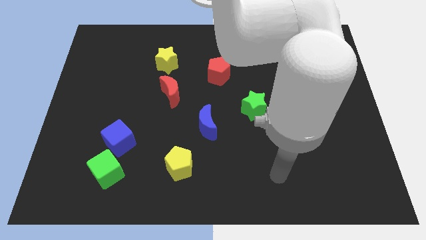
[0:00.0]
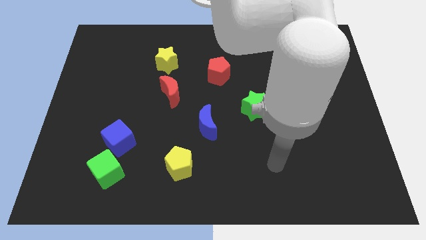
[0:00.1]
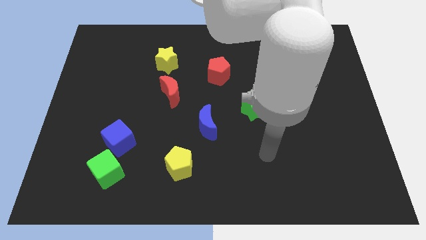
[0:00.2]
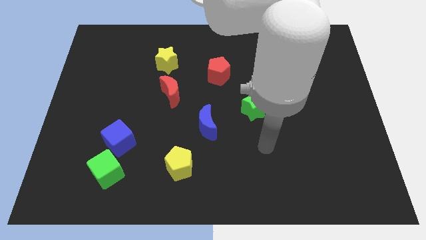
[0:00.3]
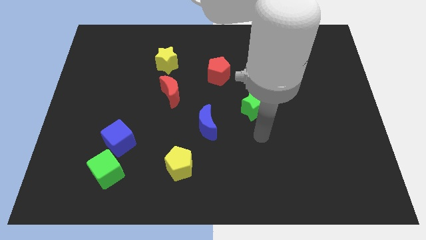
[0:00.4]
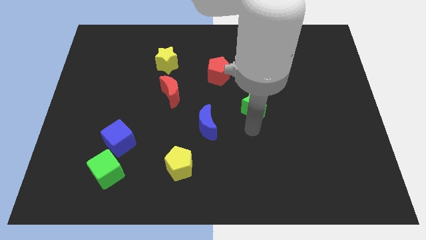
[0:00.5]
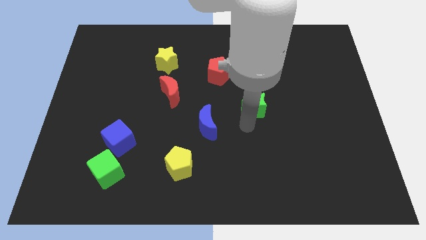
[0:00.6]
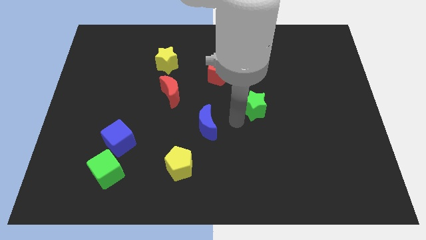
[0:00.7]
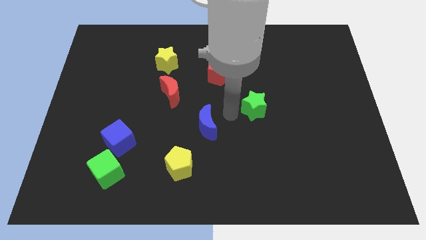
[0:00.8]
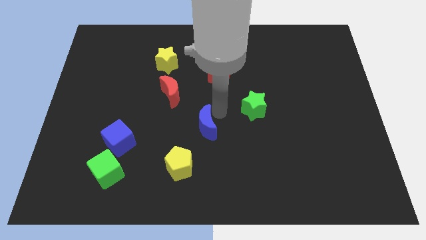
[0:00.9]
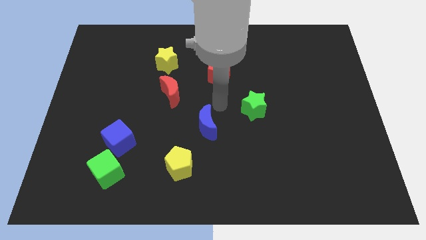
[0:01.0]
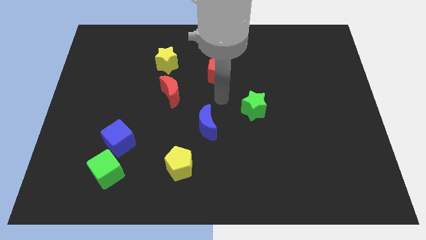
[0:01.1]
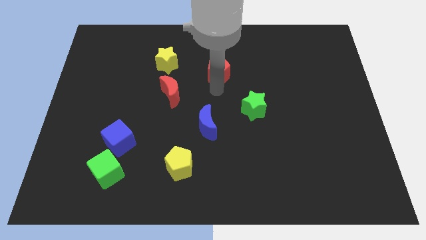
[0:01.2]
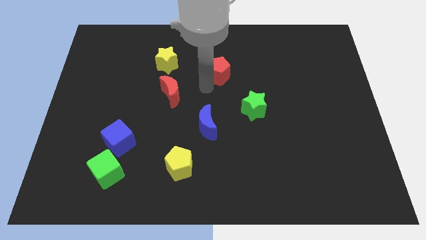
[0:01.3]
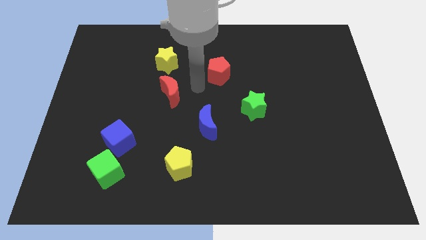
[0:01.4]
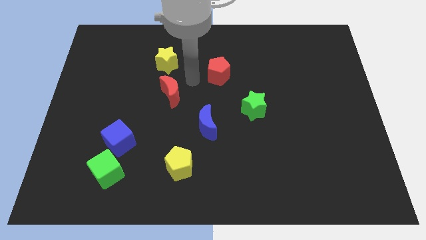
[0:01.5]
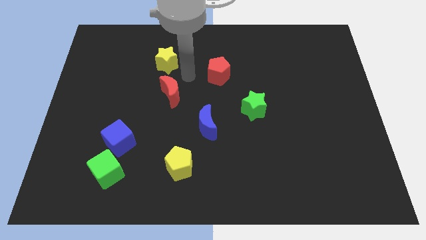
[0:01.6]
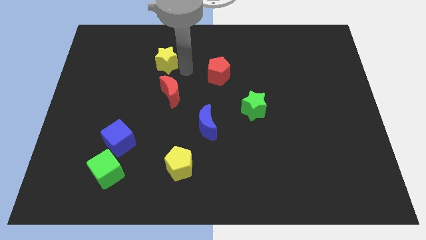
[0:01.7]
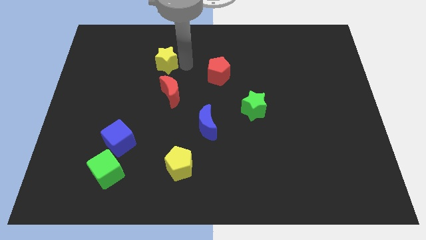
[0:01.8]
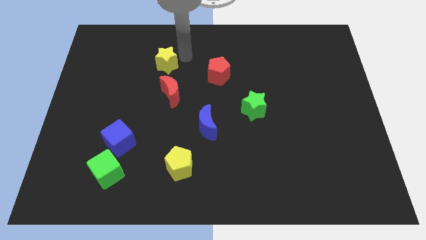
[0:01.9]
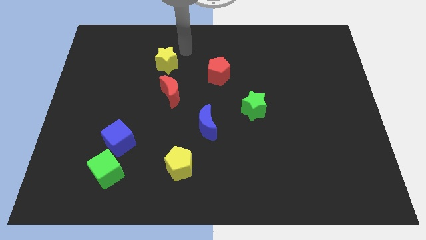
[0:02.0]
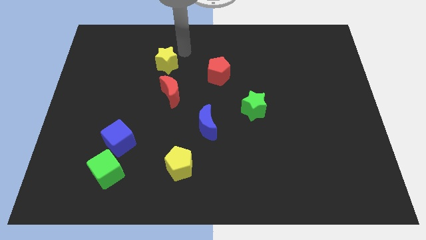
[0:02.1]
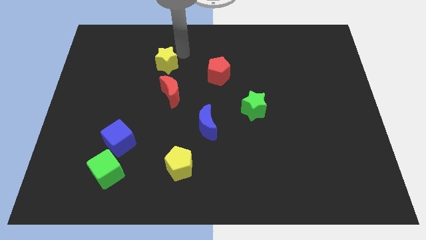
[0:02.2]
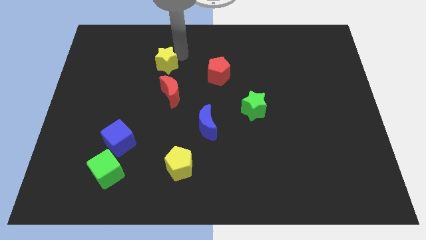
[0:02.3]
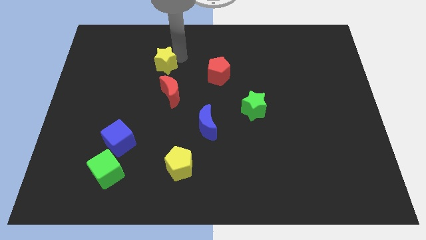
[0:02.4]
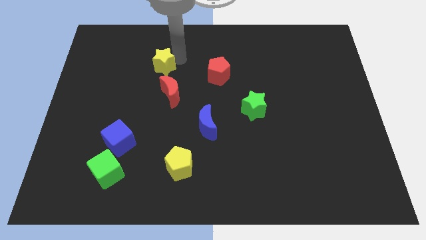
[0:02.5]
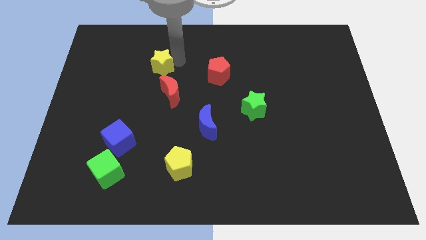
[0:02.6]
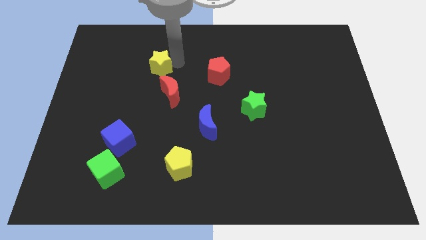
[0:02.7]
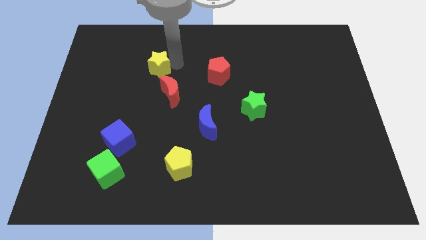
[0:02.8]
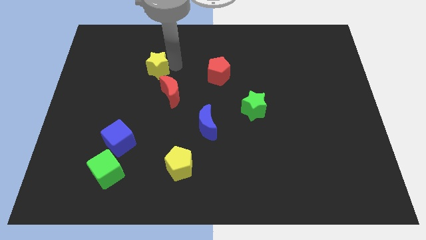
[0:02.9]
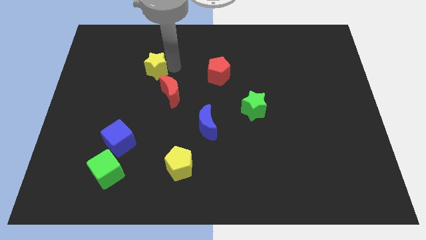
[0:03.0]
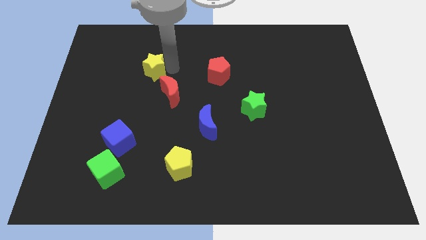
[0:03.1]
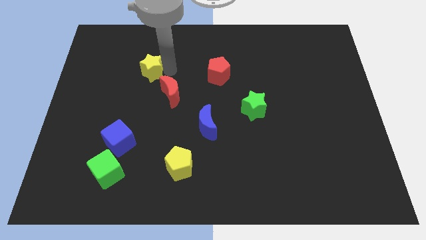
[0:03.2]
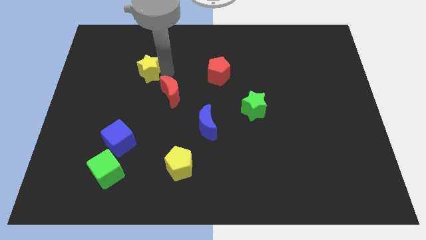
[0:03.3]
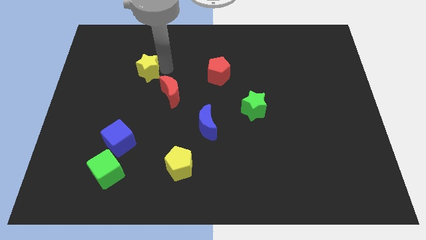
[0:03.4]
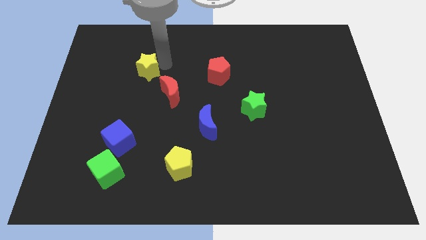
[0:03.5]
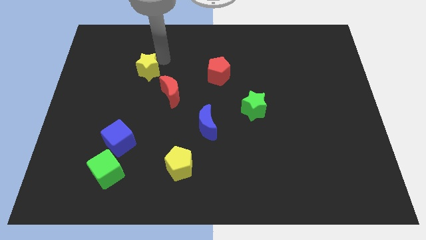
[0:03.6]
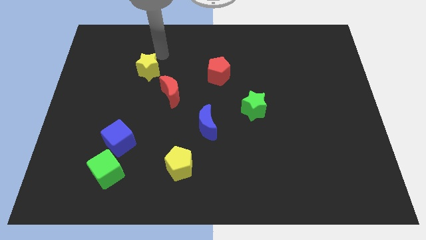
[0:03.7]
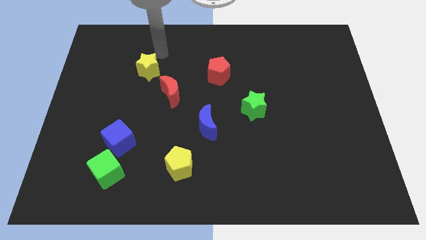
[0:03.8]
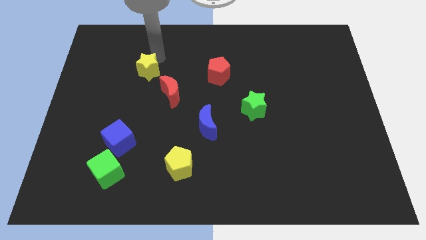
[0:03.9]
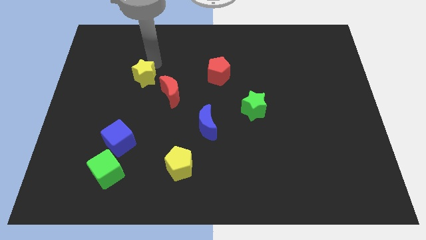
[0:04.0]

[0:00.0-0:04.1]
move the yellow star down and then to the left a little bit

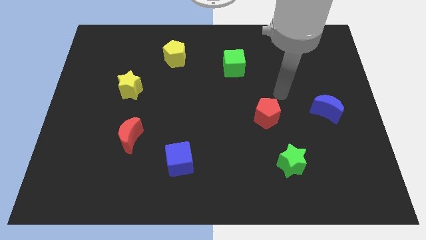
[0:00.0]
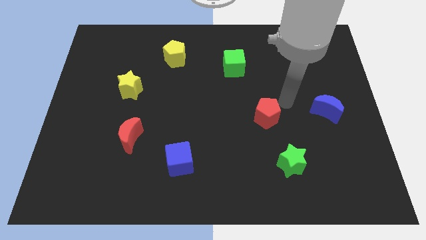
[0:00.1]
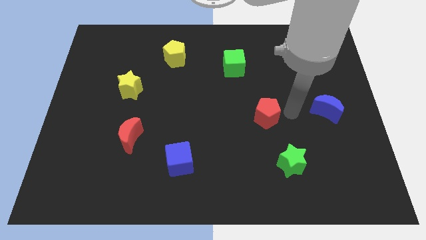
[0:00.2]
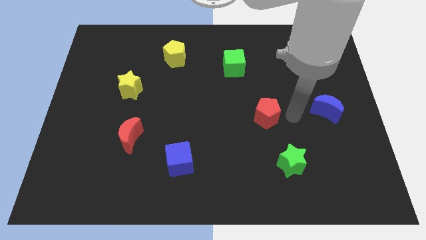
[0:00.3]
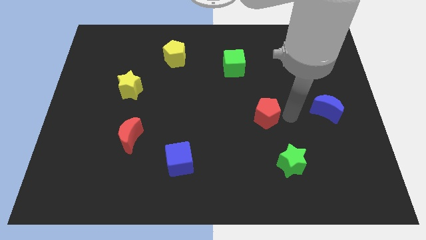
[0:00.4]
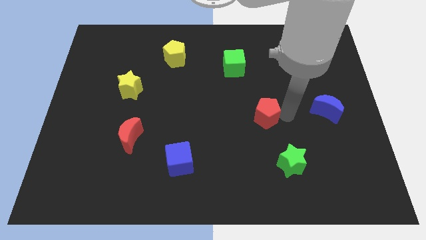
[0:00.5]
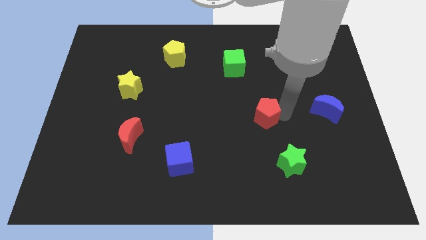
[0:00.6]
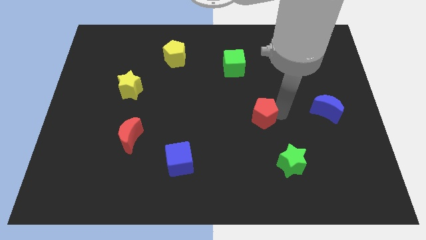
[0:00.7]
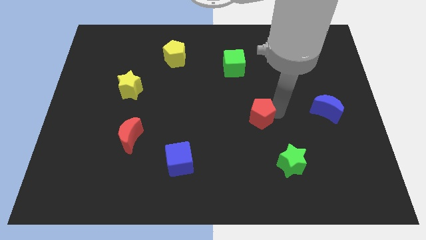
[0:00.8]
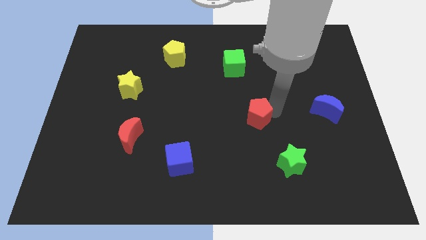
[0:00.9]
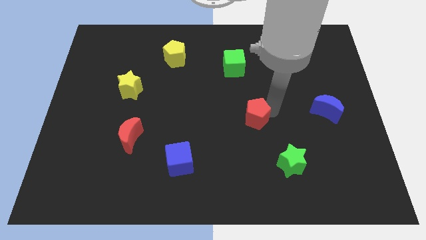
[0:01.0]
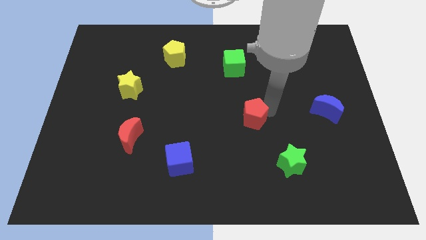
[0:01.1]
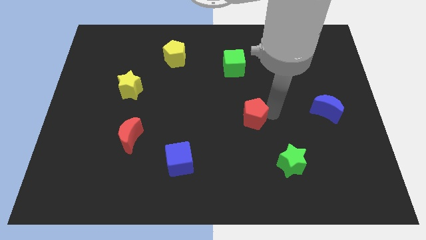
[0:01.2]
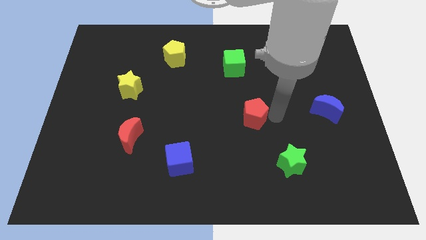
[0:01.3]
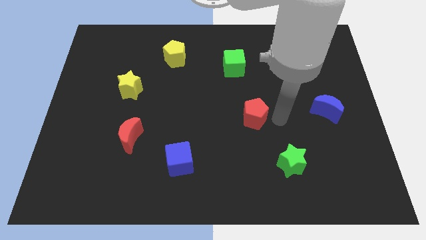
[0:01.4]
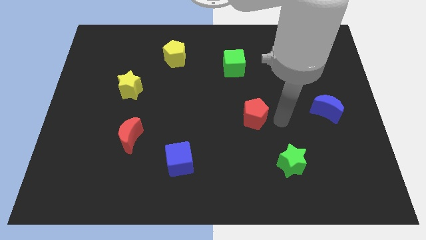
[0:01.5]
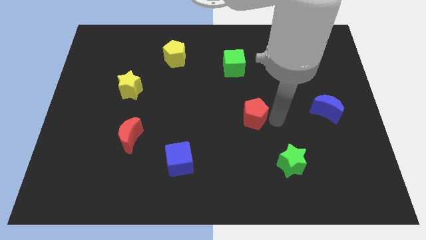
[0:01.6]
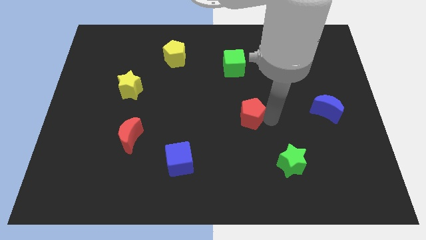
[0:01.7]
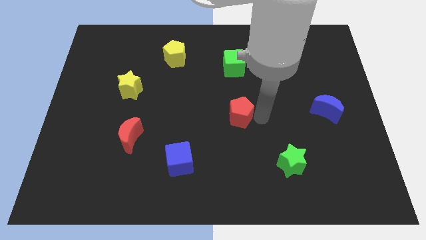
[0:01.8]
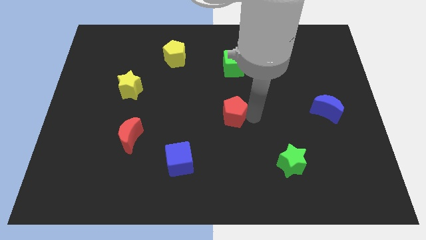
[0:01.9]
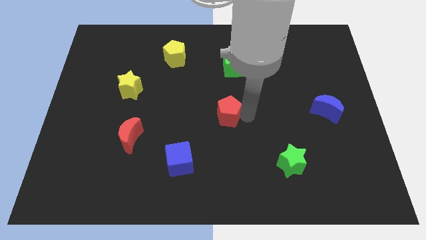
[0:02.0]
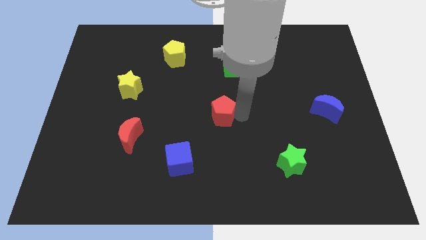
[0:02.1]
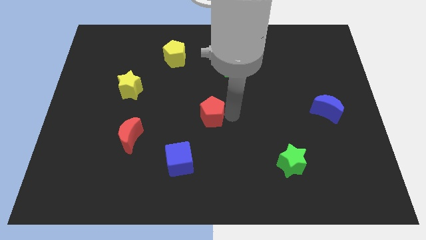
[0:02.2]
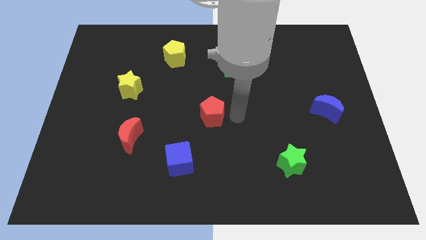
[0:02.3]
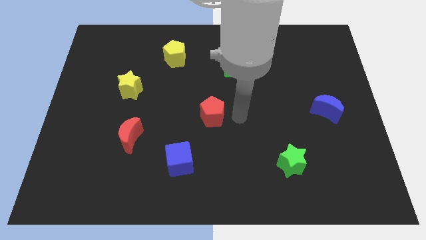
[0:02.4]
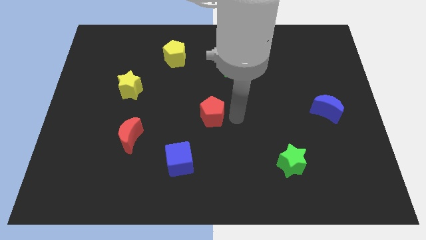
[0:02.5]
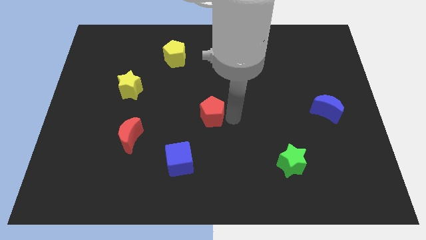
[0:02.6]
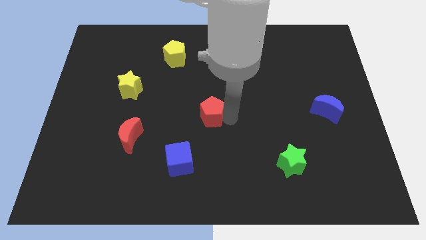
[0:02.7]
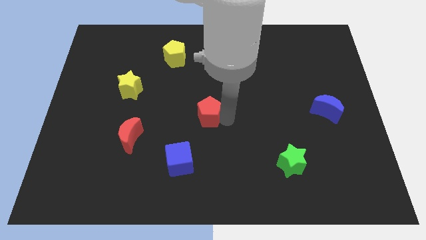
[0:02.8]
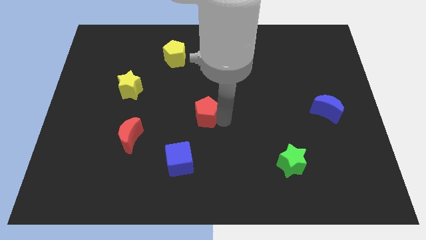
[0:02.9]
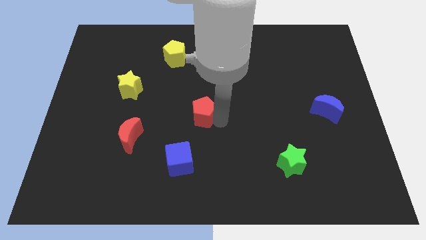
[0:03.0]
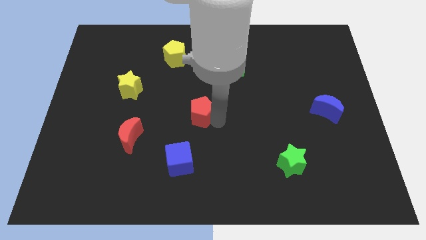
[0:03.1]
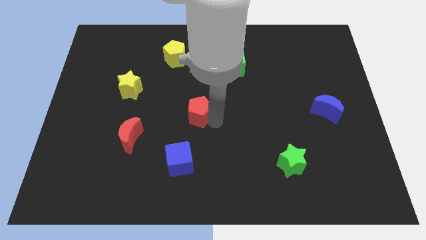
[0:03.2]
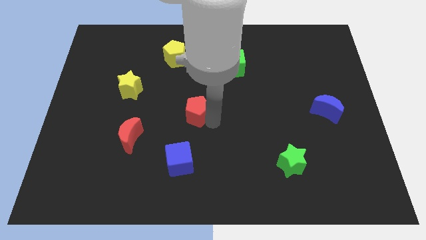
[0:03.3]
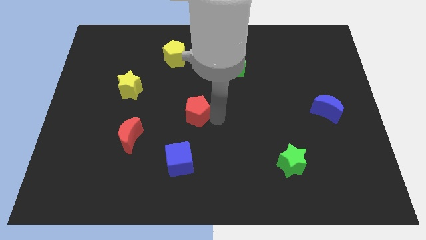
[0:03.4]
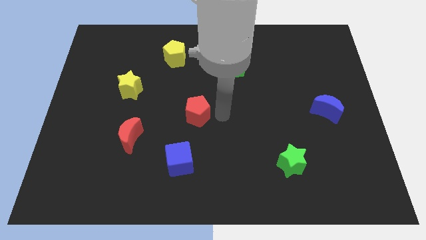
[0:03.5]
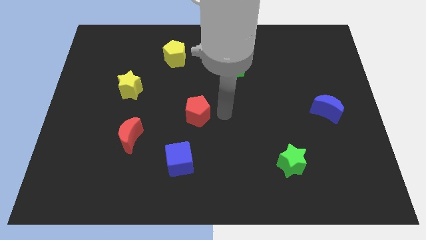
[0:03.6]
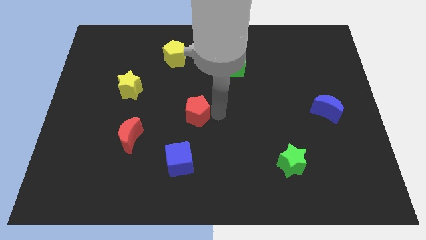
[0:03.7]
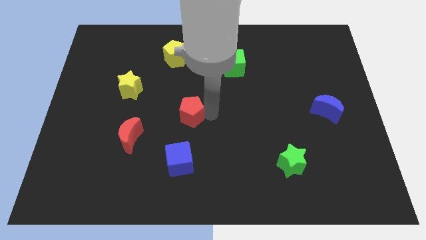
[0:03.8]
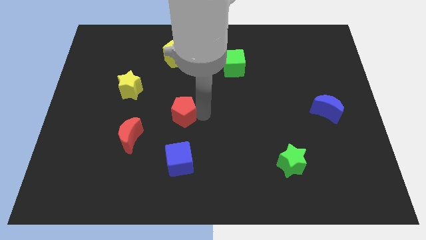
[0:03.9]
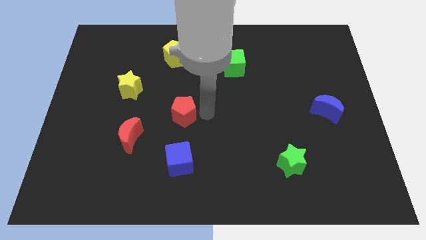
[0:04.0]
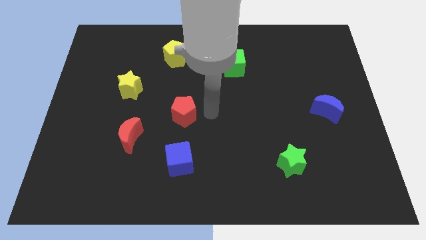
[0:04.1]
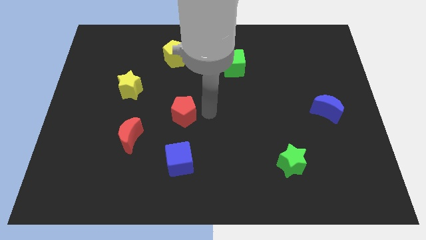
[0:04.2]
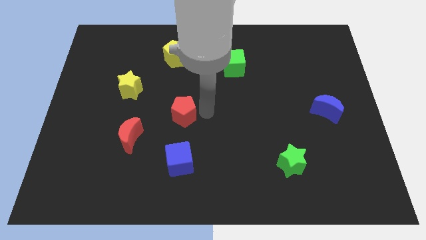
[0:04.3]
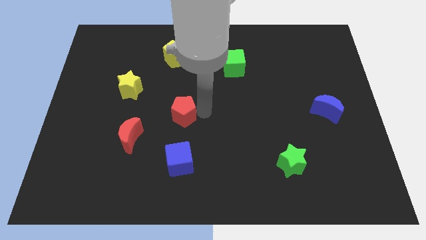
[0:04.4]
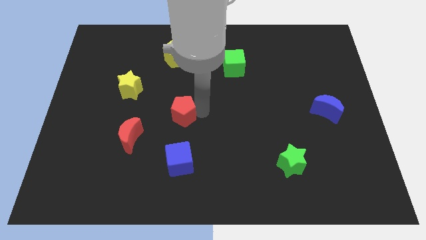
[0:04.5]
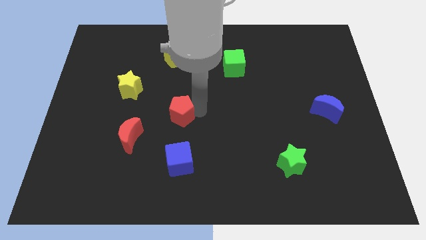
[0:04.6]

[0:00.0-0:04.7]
move the red pentagon to the left
